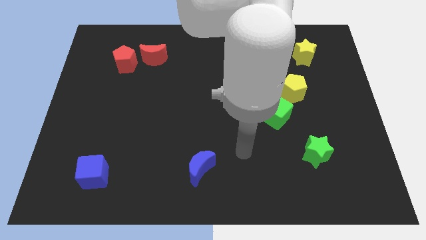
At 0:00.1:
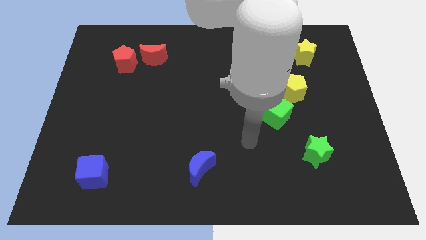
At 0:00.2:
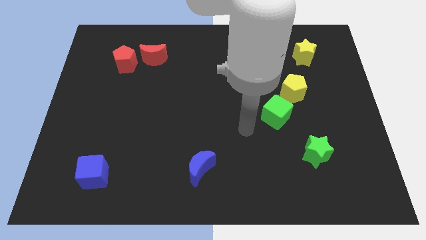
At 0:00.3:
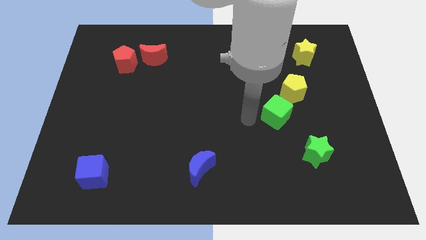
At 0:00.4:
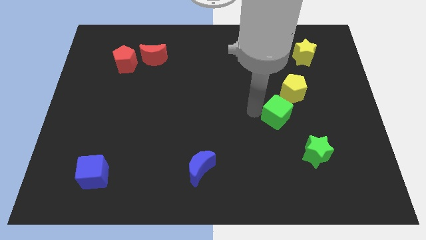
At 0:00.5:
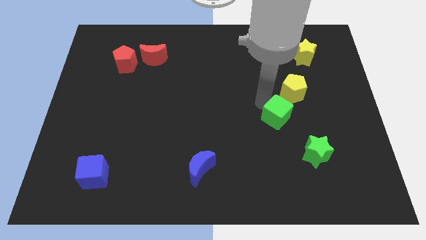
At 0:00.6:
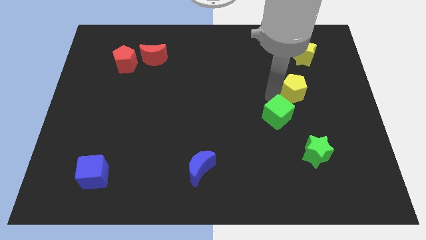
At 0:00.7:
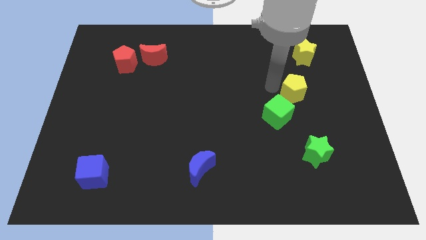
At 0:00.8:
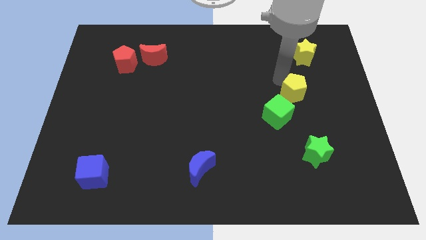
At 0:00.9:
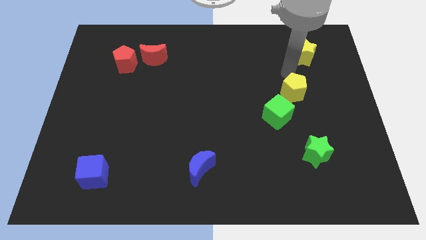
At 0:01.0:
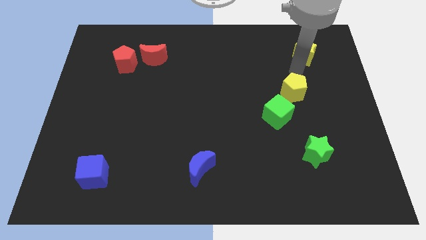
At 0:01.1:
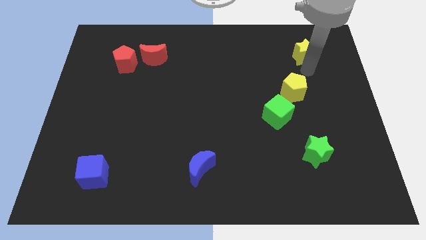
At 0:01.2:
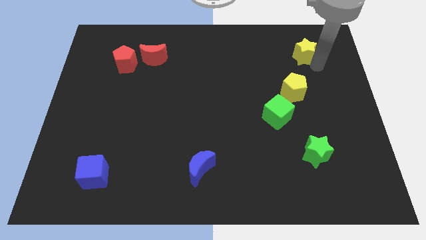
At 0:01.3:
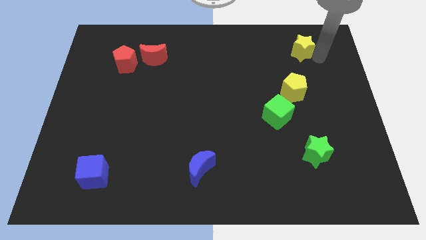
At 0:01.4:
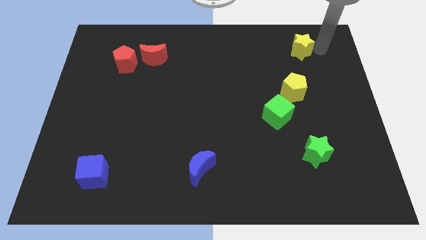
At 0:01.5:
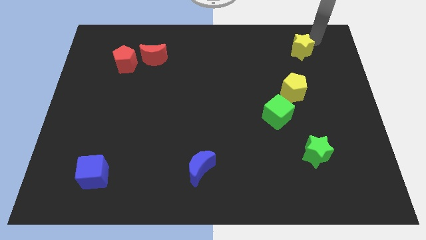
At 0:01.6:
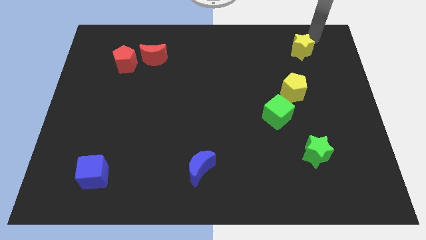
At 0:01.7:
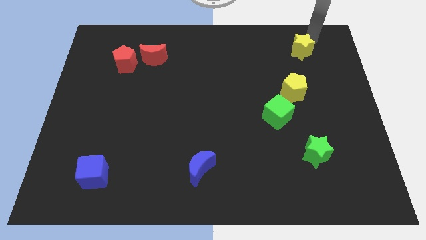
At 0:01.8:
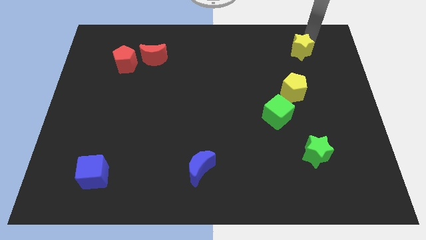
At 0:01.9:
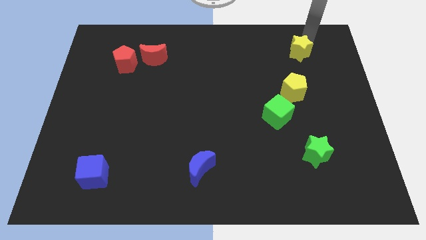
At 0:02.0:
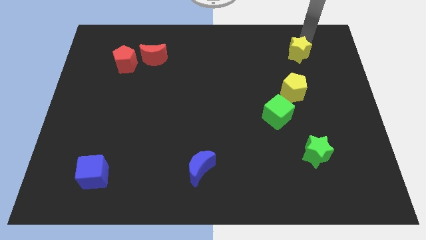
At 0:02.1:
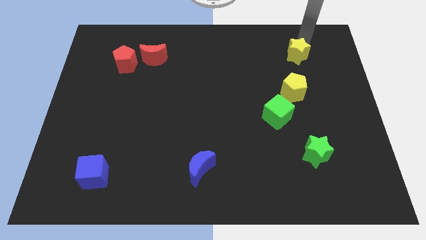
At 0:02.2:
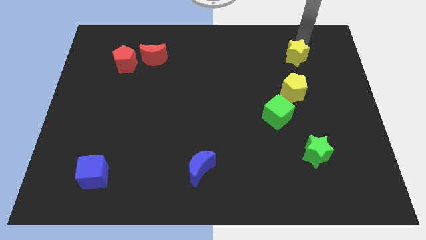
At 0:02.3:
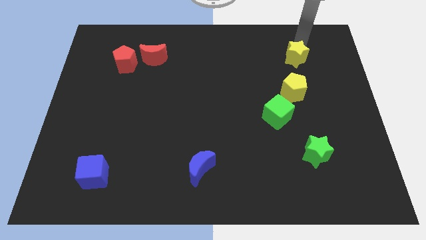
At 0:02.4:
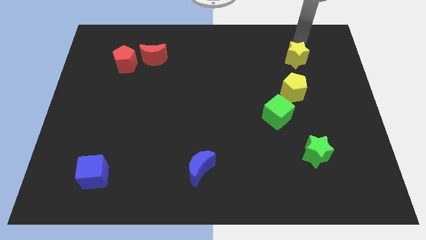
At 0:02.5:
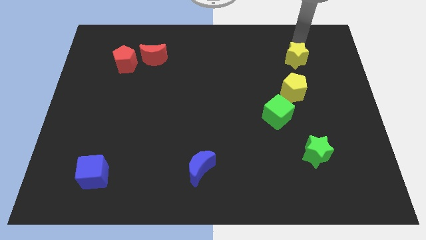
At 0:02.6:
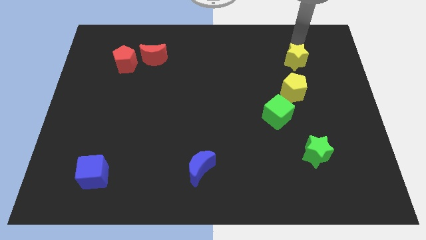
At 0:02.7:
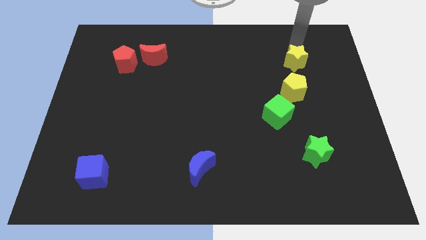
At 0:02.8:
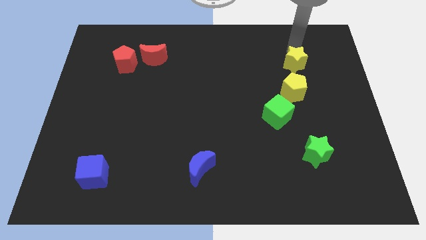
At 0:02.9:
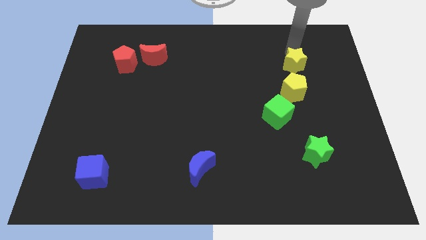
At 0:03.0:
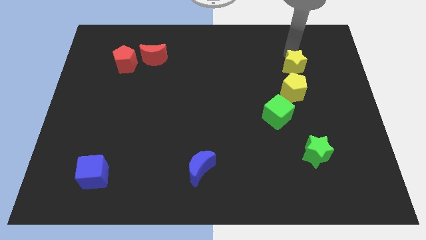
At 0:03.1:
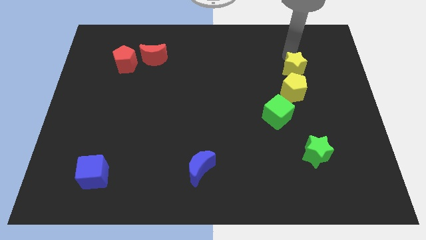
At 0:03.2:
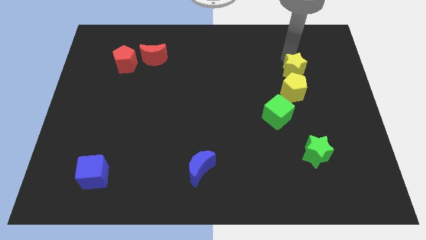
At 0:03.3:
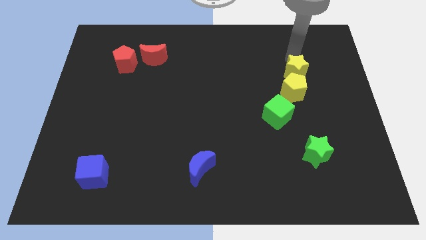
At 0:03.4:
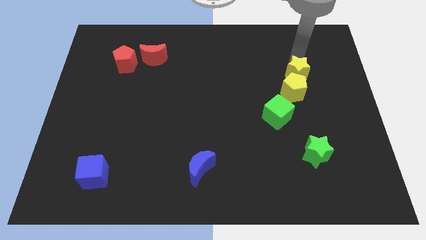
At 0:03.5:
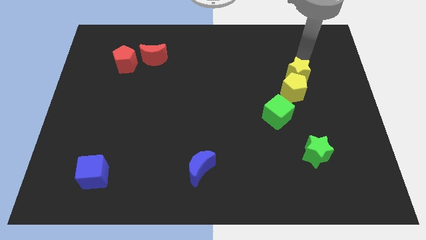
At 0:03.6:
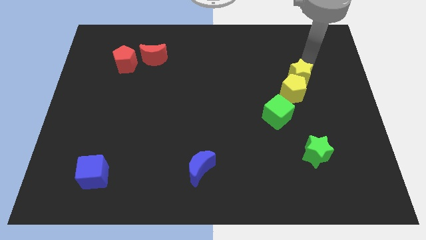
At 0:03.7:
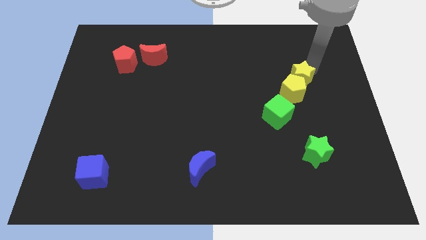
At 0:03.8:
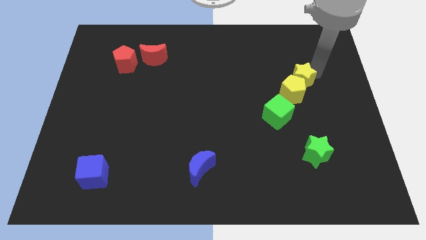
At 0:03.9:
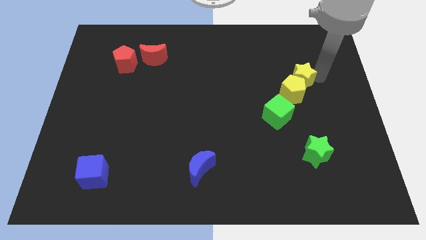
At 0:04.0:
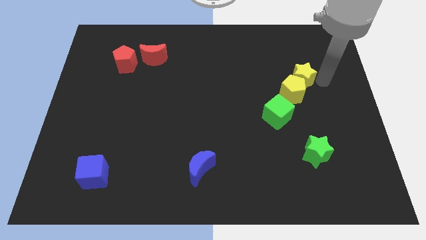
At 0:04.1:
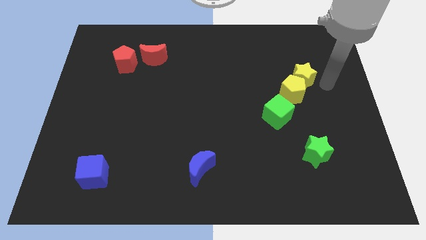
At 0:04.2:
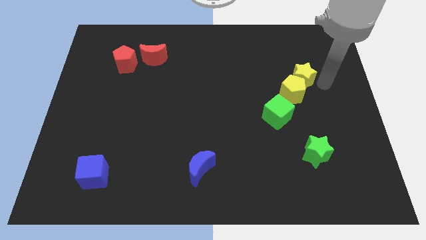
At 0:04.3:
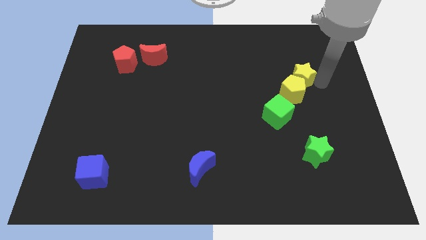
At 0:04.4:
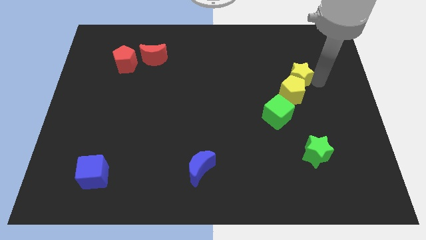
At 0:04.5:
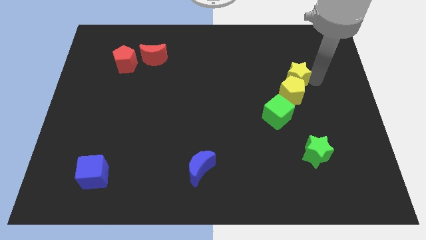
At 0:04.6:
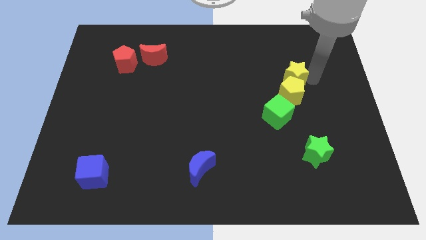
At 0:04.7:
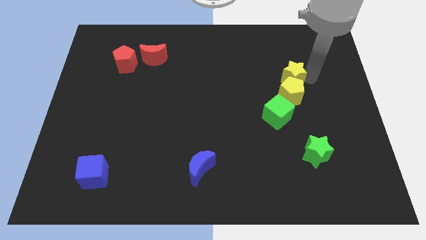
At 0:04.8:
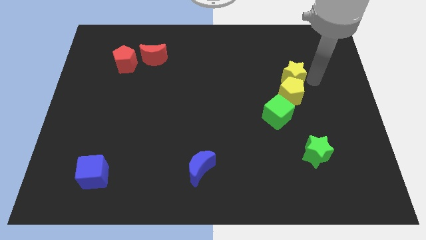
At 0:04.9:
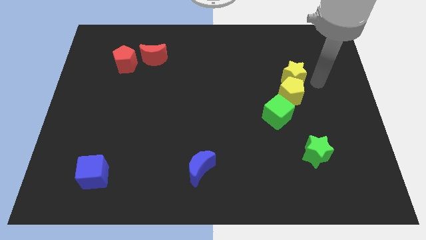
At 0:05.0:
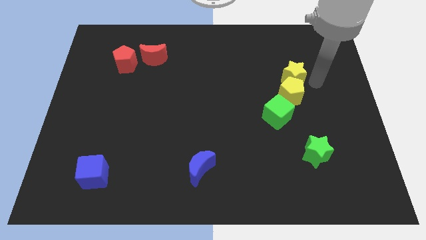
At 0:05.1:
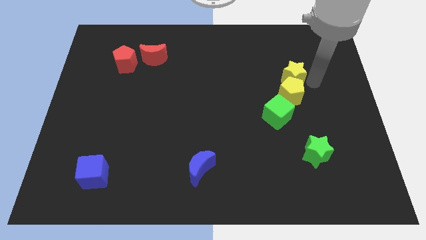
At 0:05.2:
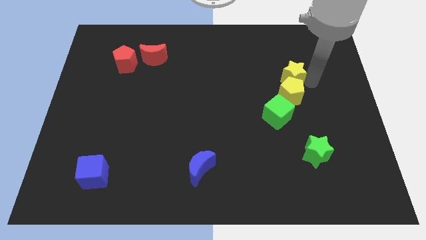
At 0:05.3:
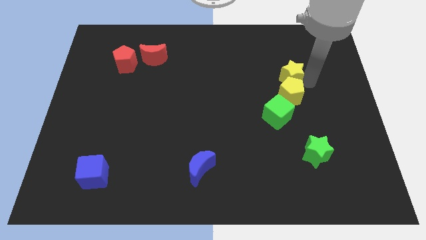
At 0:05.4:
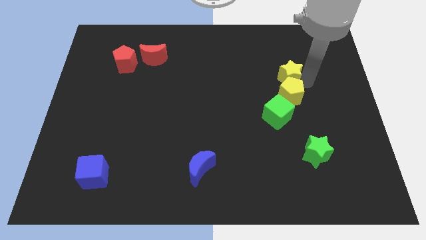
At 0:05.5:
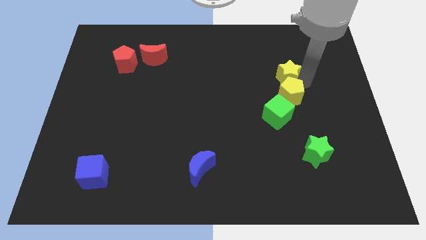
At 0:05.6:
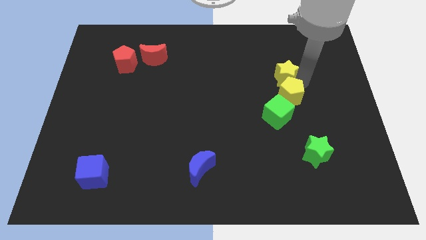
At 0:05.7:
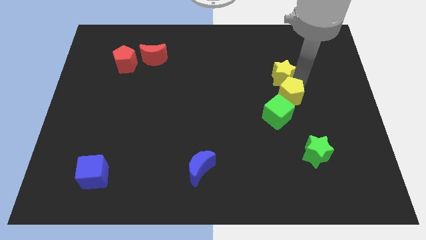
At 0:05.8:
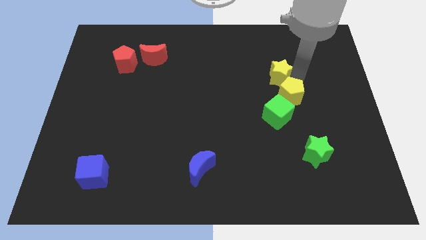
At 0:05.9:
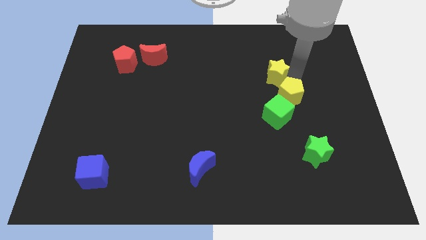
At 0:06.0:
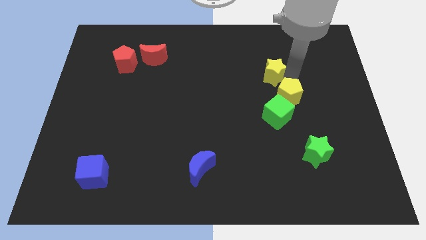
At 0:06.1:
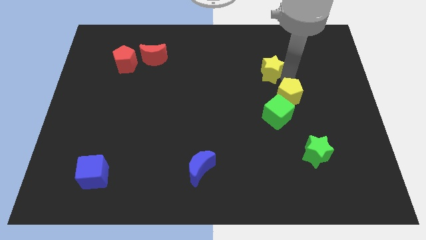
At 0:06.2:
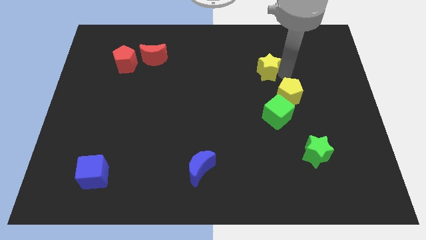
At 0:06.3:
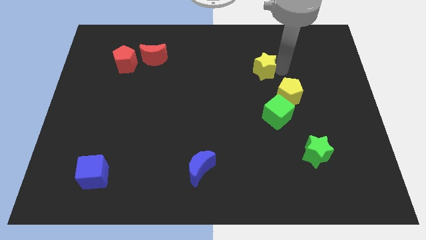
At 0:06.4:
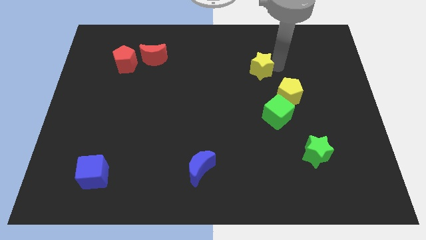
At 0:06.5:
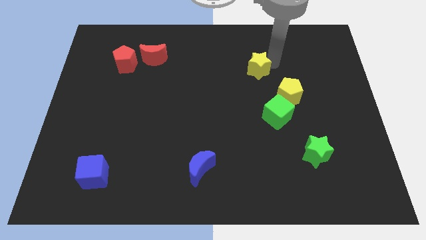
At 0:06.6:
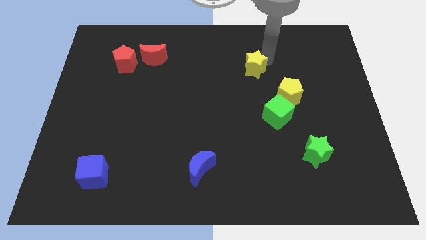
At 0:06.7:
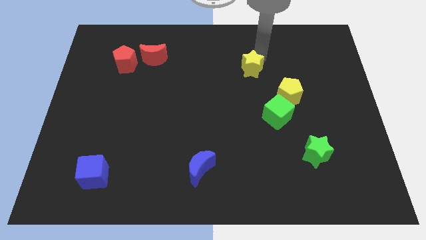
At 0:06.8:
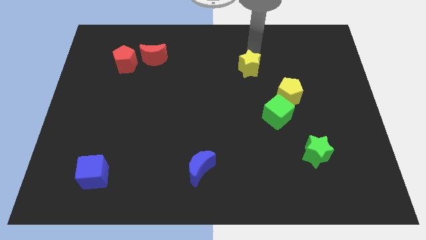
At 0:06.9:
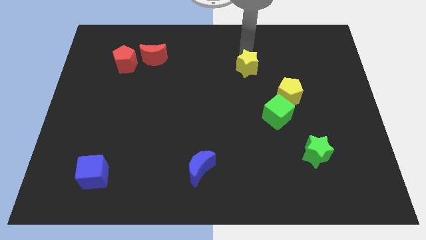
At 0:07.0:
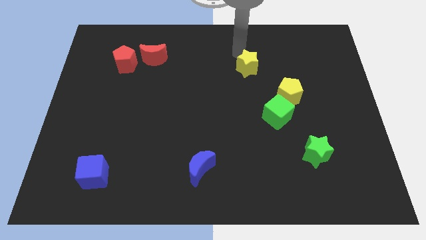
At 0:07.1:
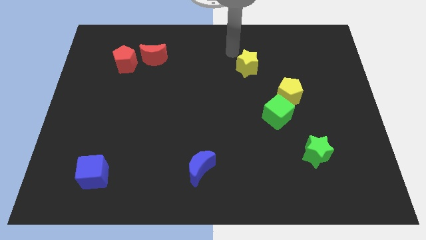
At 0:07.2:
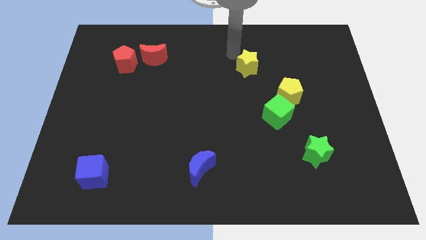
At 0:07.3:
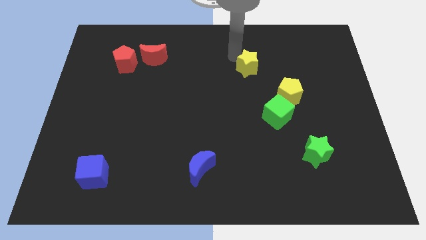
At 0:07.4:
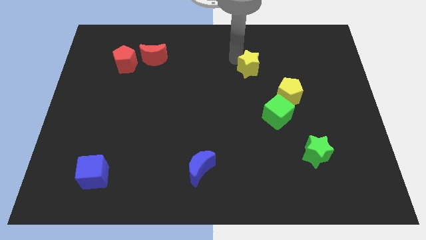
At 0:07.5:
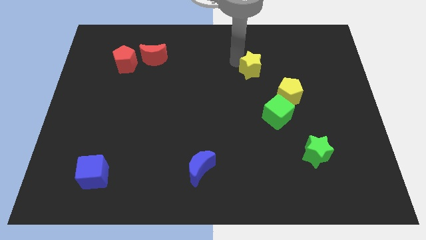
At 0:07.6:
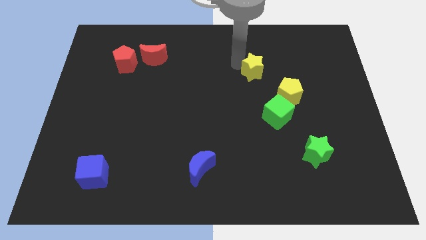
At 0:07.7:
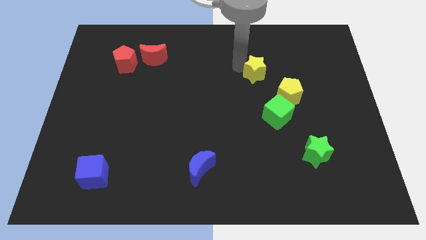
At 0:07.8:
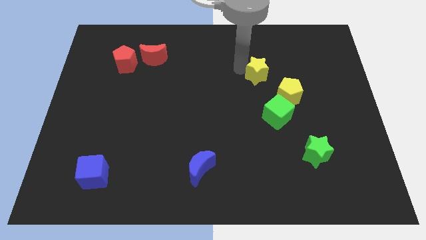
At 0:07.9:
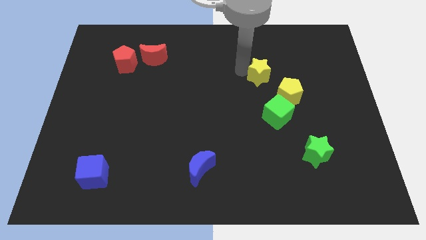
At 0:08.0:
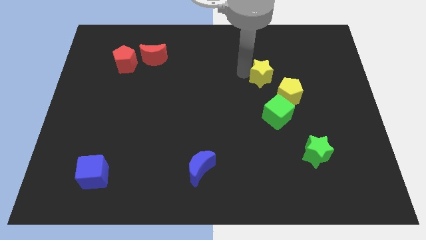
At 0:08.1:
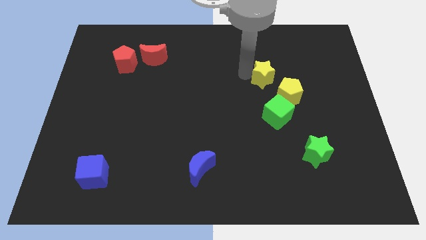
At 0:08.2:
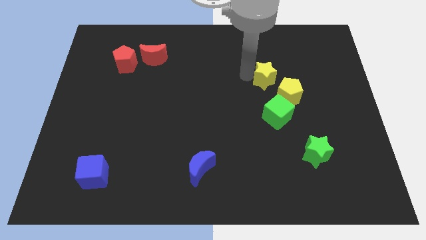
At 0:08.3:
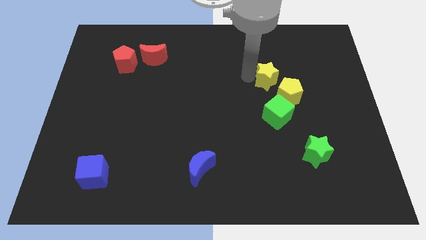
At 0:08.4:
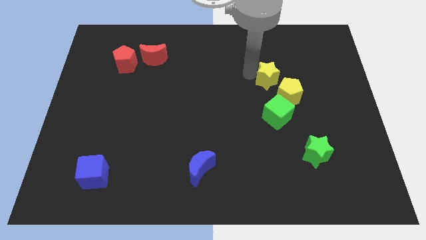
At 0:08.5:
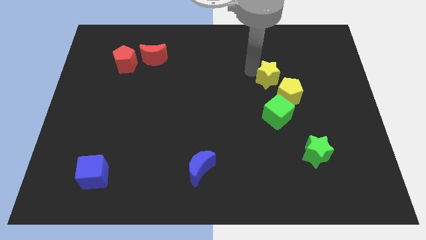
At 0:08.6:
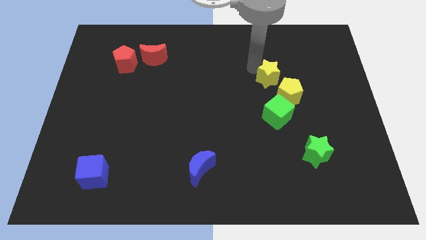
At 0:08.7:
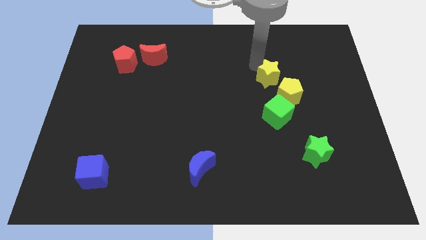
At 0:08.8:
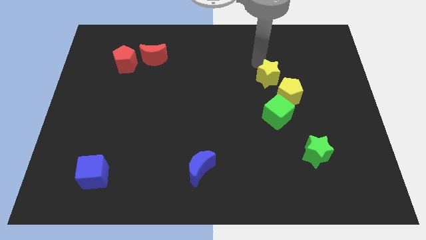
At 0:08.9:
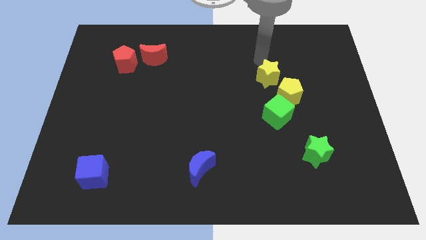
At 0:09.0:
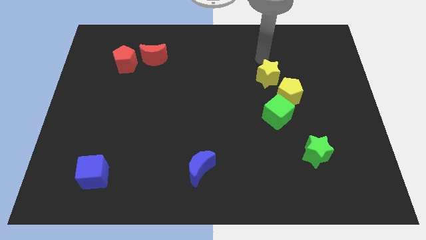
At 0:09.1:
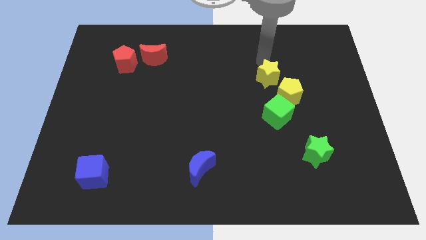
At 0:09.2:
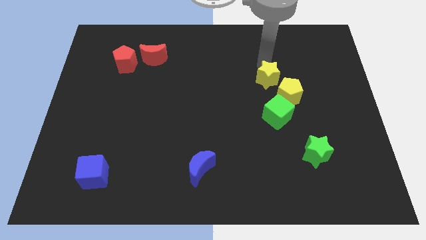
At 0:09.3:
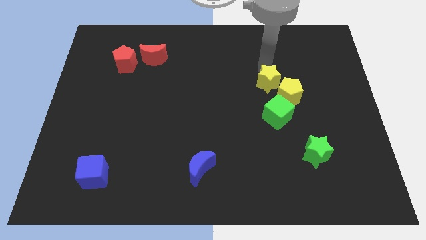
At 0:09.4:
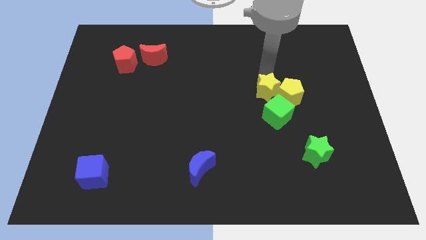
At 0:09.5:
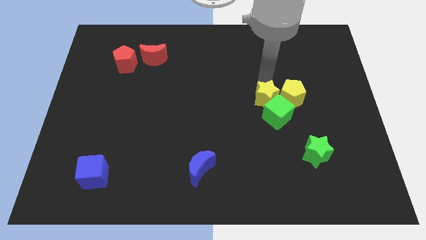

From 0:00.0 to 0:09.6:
push the yellow star to the green cube
